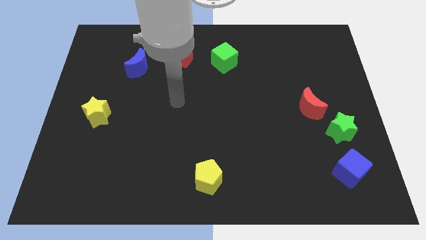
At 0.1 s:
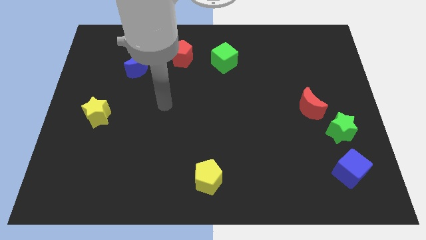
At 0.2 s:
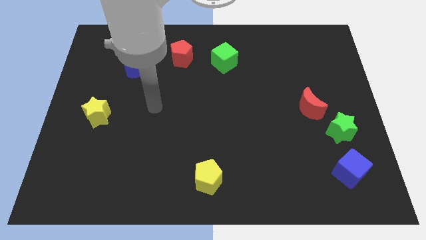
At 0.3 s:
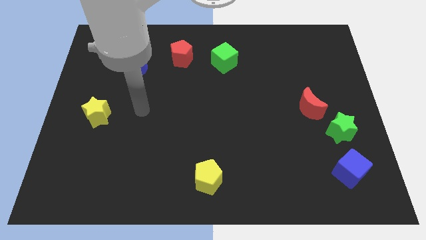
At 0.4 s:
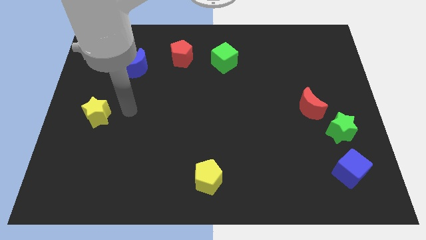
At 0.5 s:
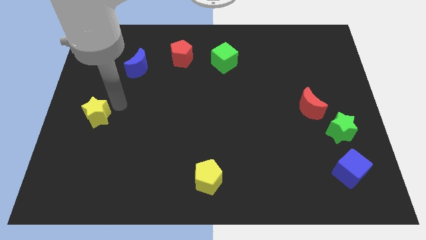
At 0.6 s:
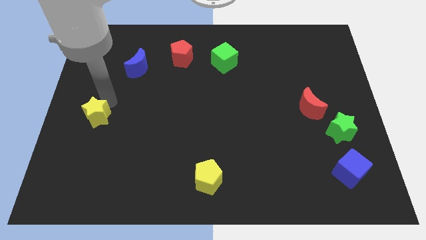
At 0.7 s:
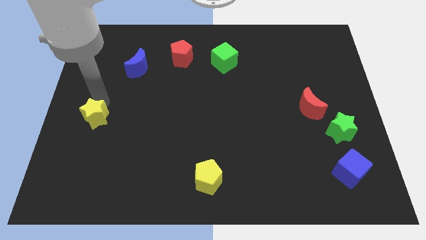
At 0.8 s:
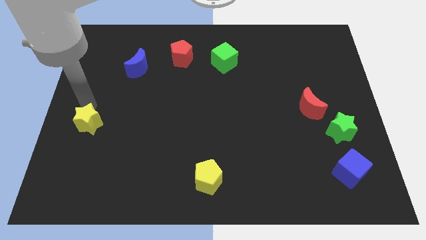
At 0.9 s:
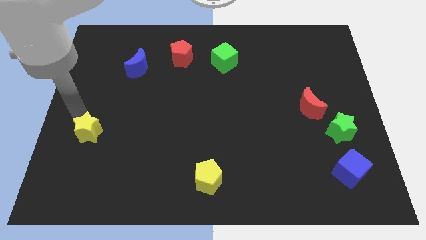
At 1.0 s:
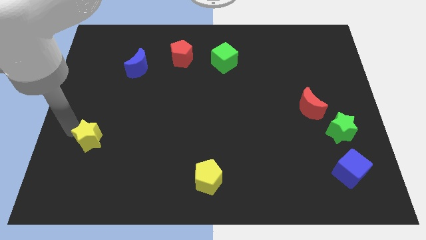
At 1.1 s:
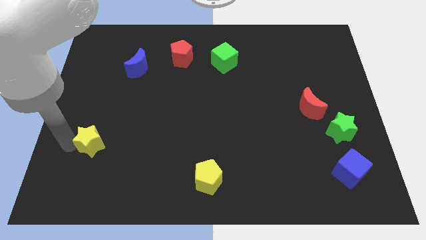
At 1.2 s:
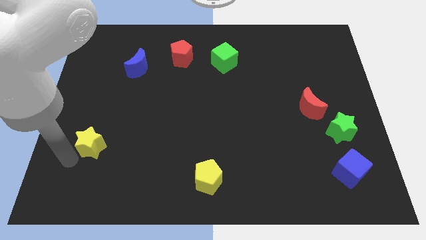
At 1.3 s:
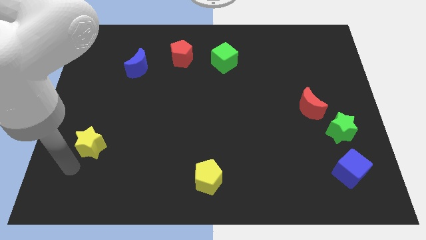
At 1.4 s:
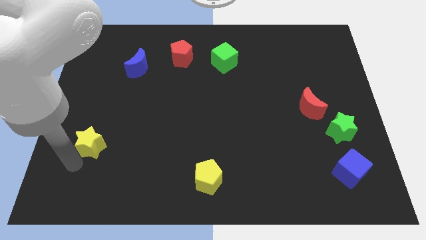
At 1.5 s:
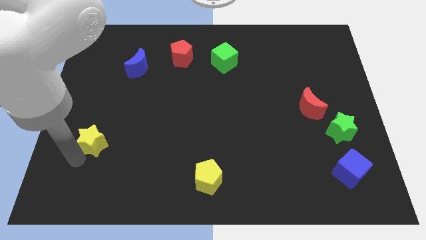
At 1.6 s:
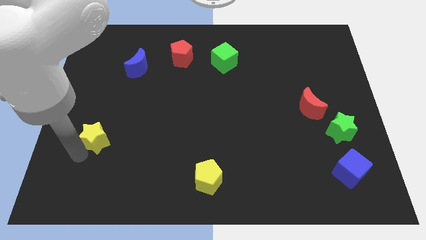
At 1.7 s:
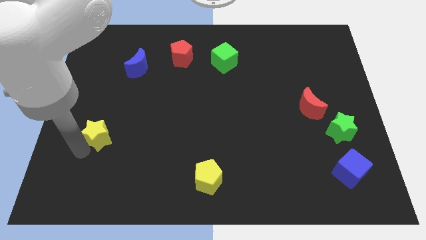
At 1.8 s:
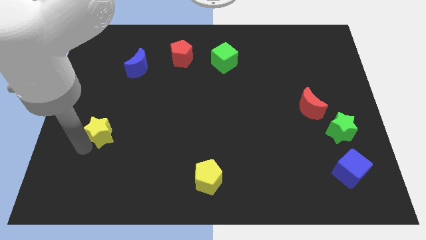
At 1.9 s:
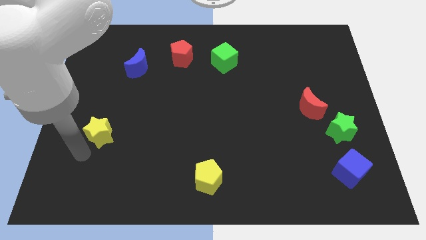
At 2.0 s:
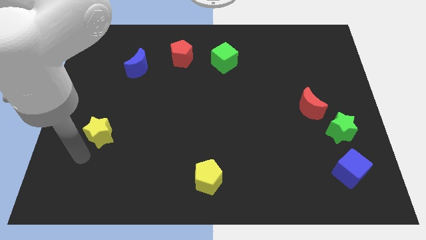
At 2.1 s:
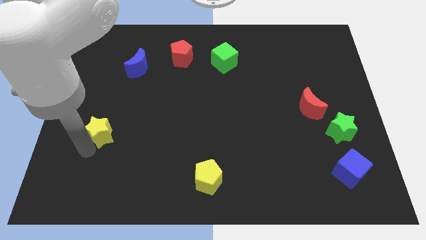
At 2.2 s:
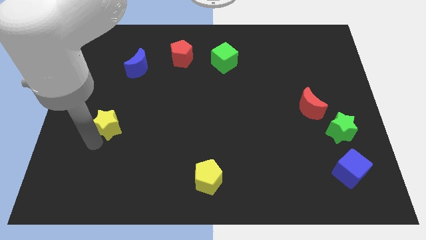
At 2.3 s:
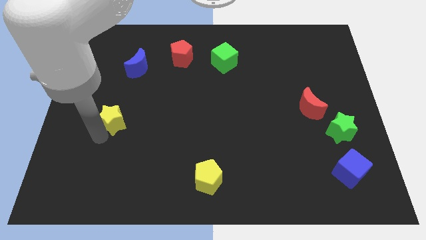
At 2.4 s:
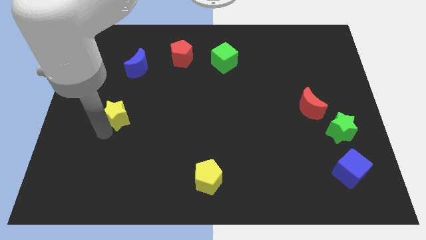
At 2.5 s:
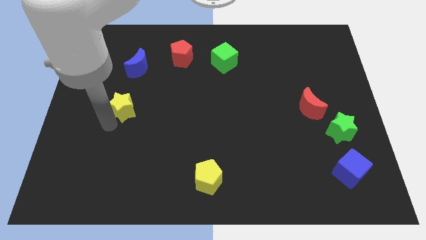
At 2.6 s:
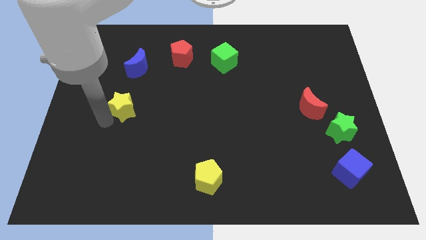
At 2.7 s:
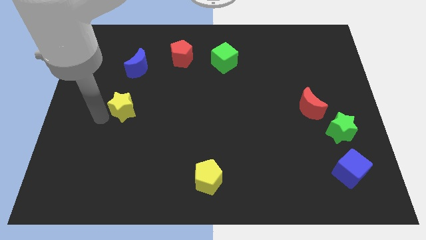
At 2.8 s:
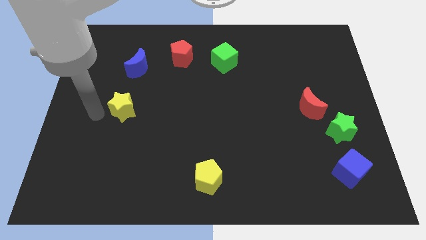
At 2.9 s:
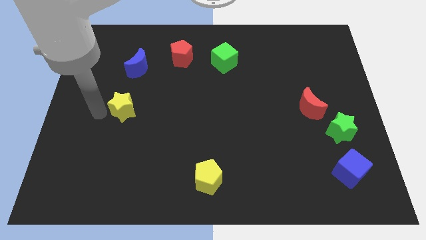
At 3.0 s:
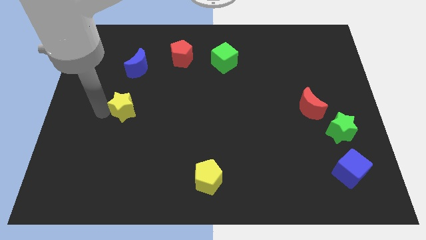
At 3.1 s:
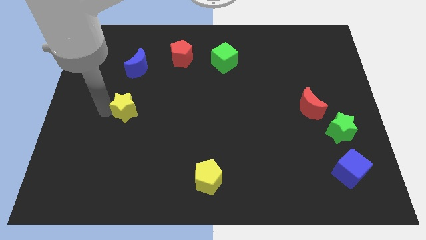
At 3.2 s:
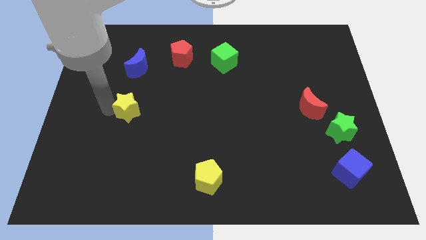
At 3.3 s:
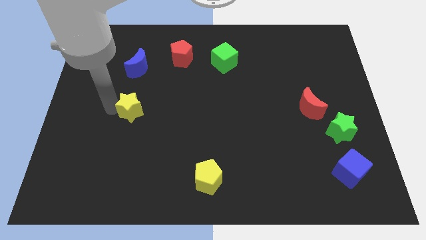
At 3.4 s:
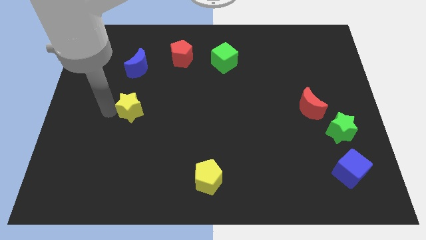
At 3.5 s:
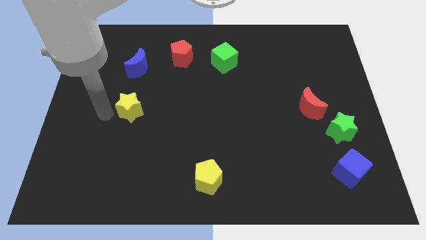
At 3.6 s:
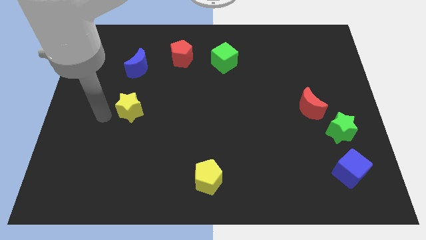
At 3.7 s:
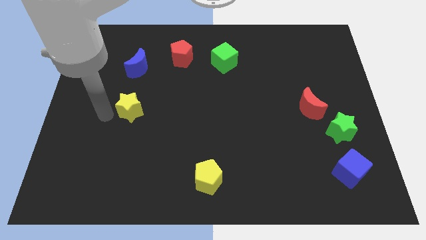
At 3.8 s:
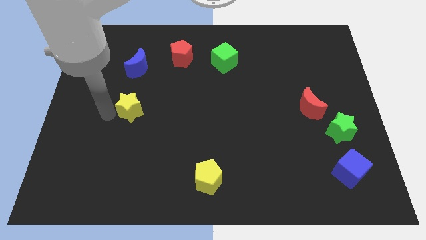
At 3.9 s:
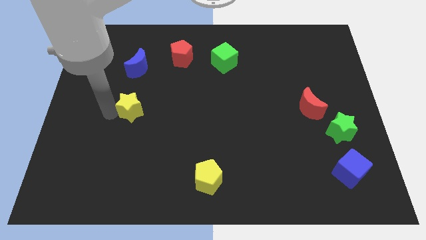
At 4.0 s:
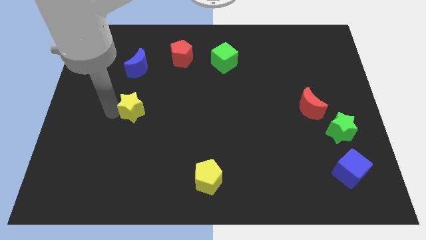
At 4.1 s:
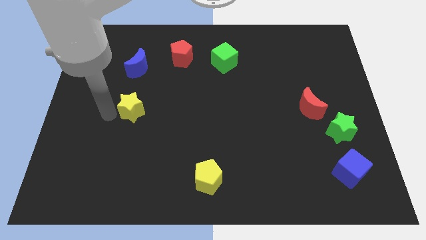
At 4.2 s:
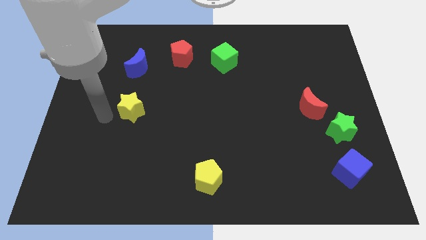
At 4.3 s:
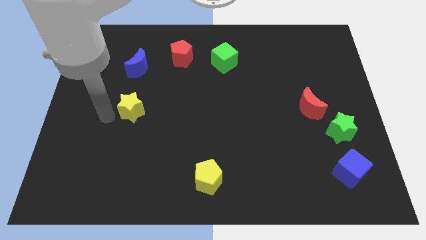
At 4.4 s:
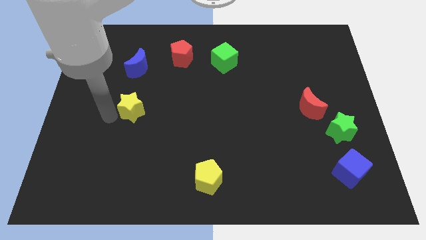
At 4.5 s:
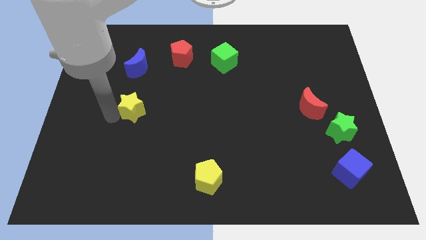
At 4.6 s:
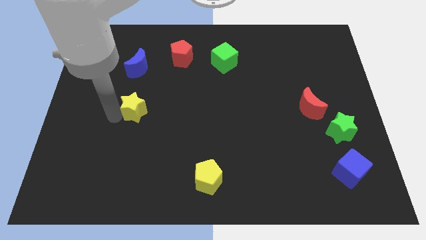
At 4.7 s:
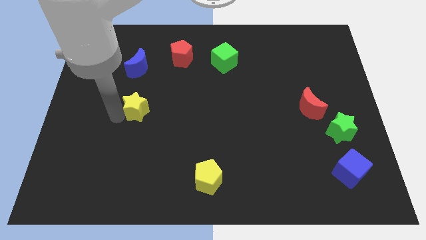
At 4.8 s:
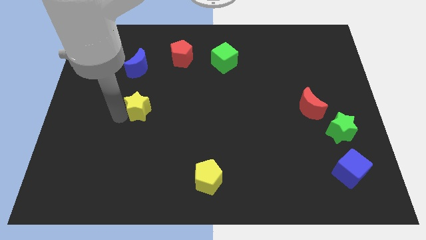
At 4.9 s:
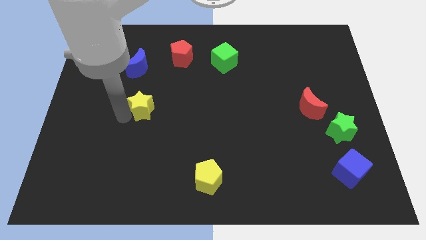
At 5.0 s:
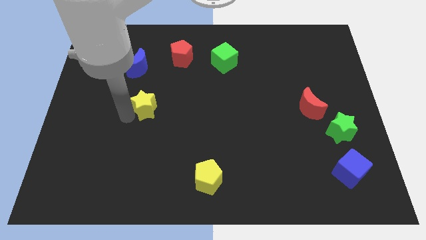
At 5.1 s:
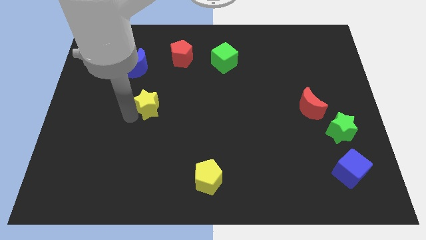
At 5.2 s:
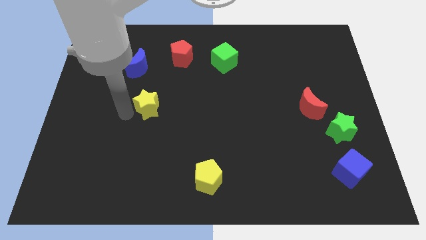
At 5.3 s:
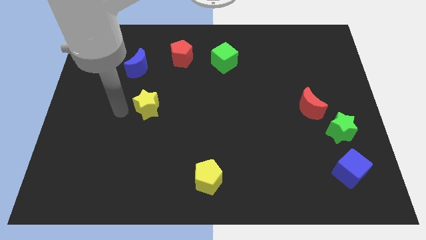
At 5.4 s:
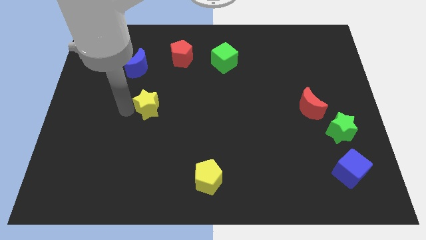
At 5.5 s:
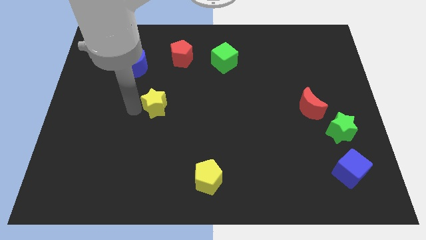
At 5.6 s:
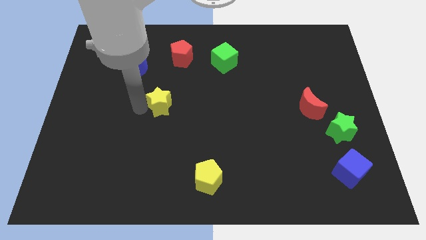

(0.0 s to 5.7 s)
put the yellow star to the center

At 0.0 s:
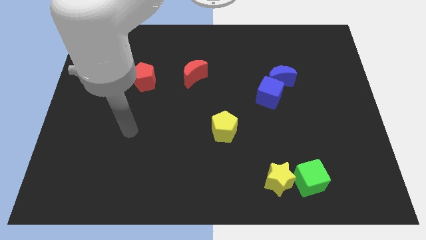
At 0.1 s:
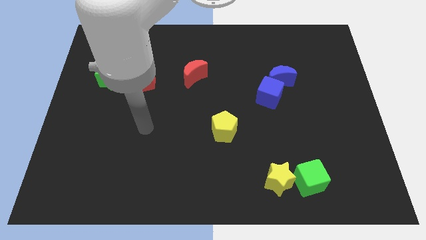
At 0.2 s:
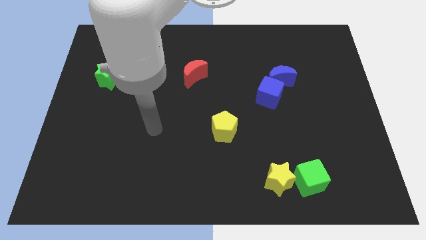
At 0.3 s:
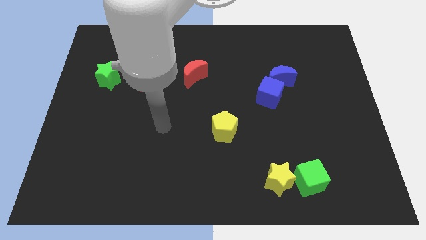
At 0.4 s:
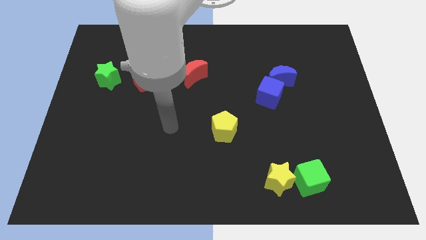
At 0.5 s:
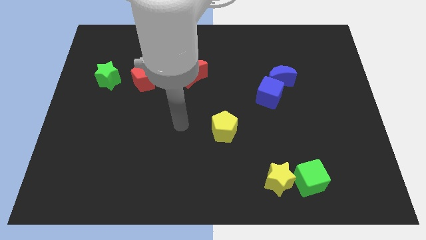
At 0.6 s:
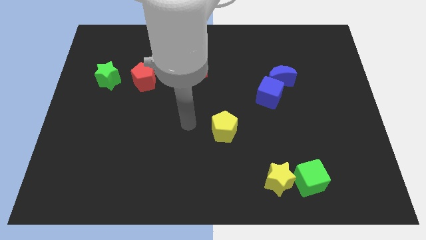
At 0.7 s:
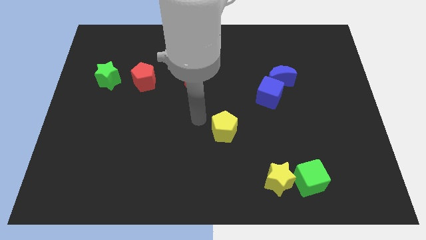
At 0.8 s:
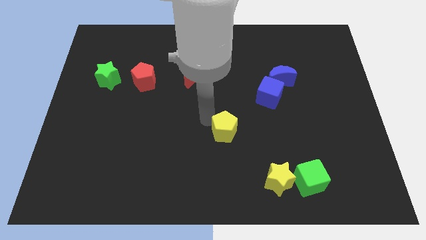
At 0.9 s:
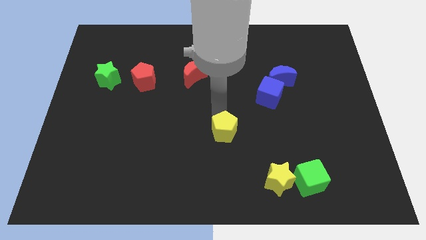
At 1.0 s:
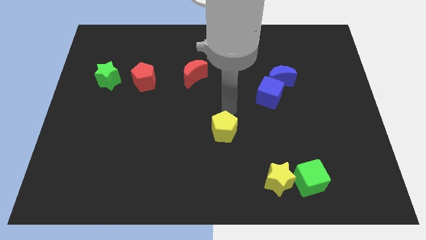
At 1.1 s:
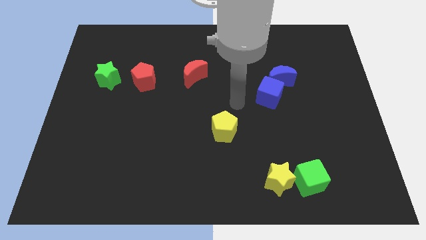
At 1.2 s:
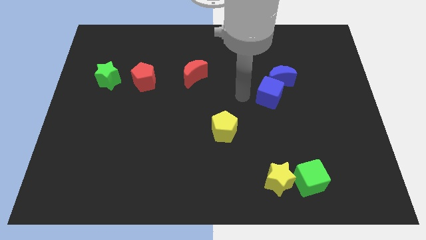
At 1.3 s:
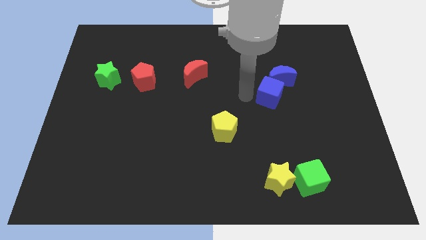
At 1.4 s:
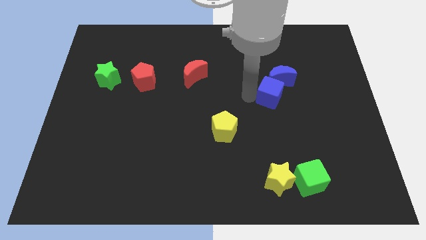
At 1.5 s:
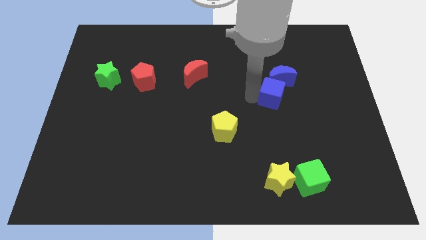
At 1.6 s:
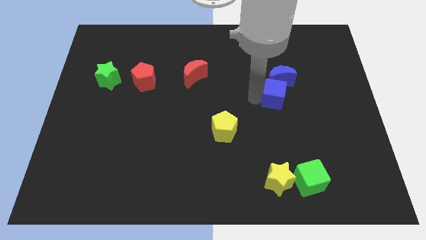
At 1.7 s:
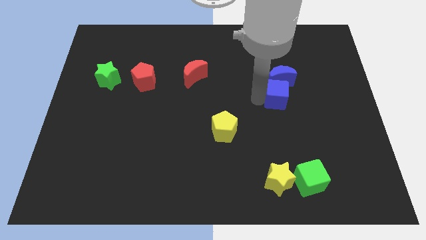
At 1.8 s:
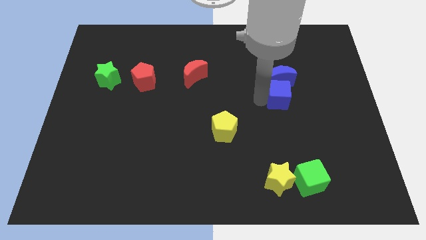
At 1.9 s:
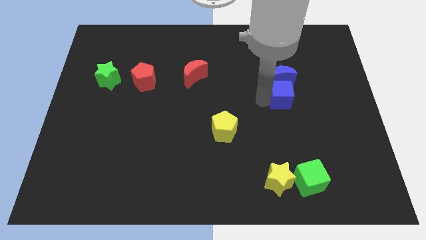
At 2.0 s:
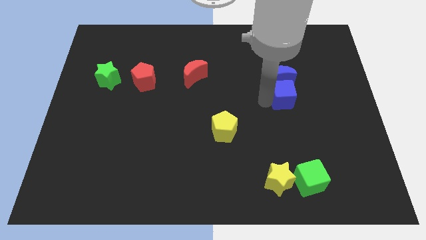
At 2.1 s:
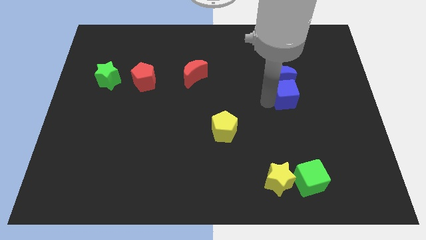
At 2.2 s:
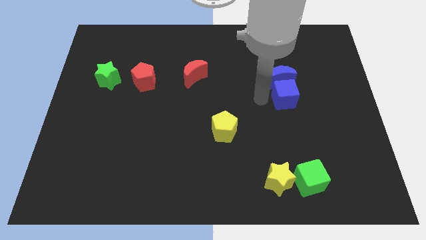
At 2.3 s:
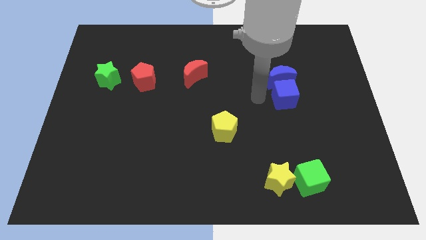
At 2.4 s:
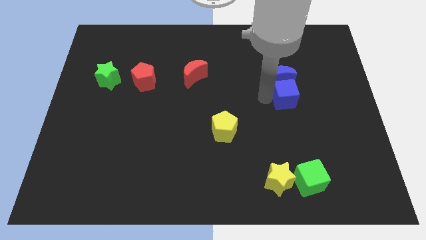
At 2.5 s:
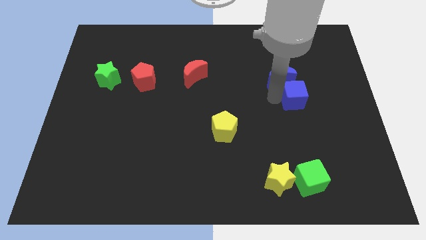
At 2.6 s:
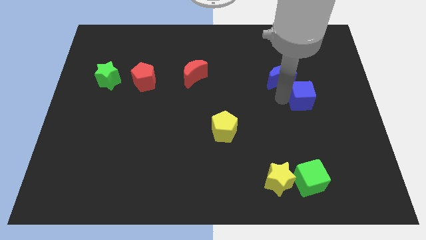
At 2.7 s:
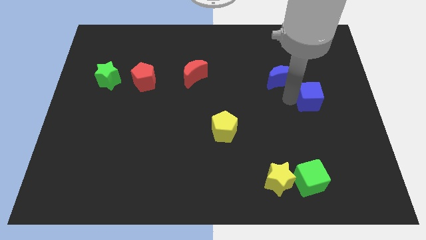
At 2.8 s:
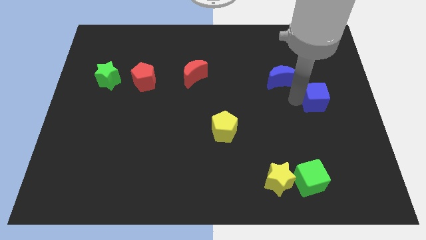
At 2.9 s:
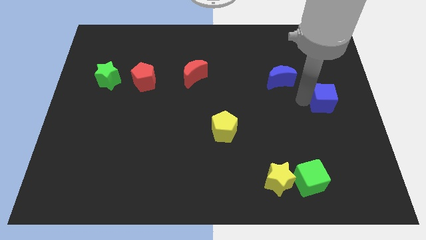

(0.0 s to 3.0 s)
put the blue cube to the right side of the board
